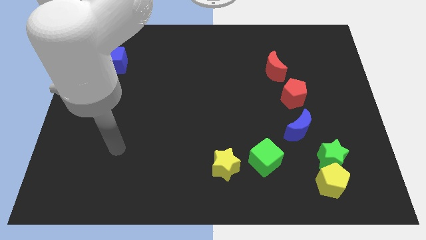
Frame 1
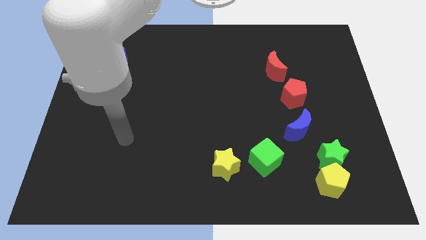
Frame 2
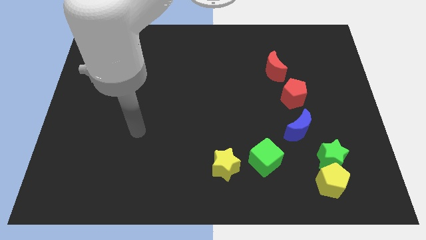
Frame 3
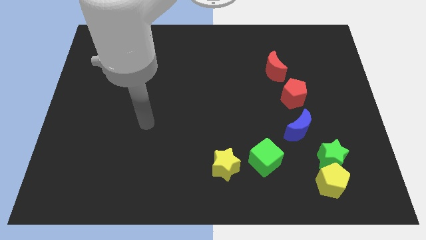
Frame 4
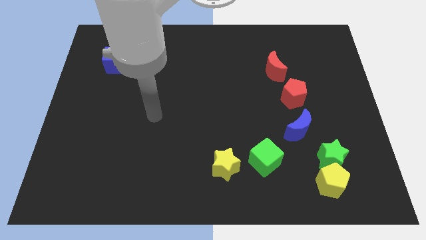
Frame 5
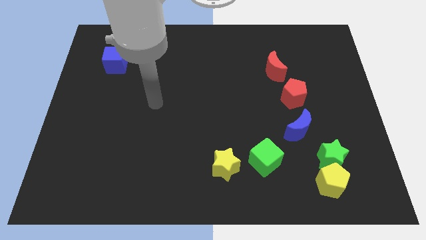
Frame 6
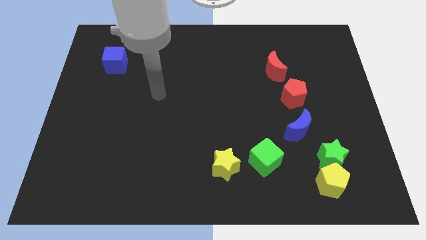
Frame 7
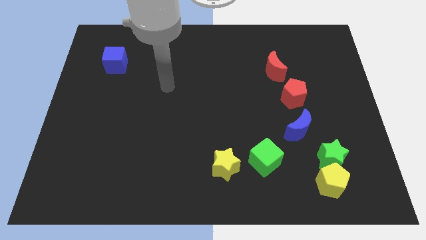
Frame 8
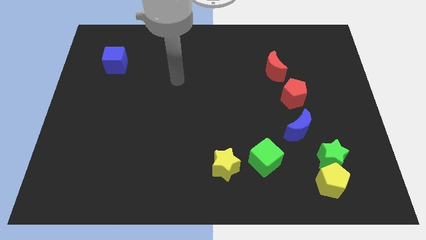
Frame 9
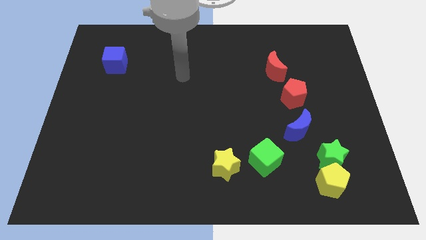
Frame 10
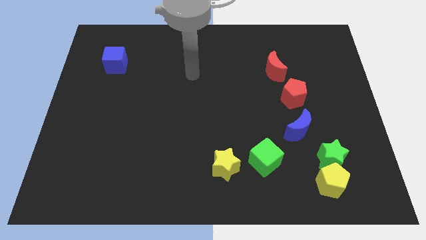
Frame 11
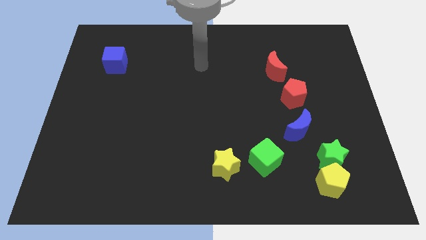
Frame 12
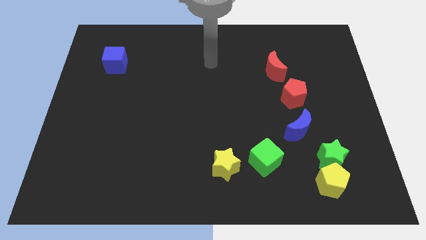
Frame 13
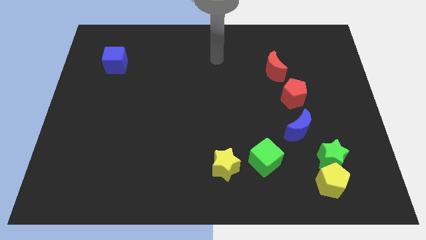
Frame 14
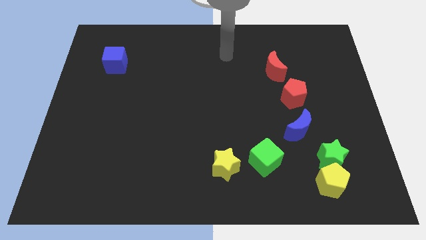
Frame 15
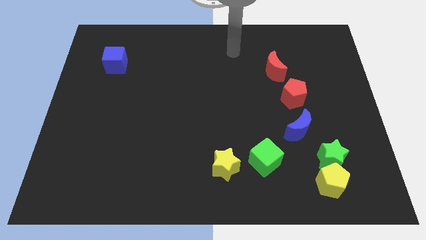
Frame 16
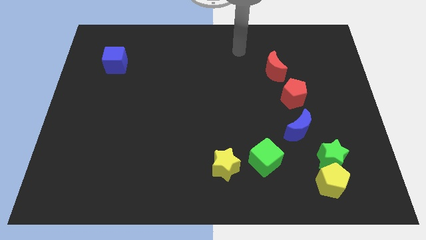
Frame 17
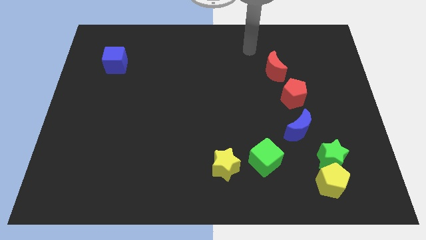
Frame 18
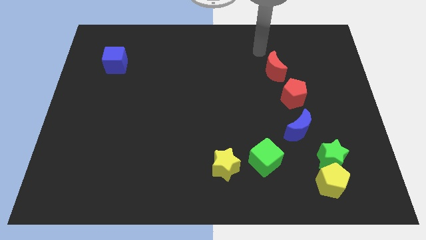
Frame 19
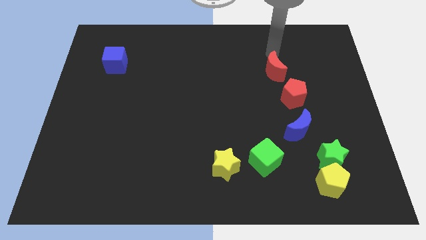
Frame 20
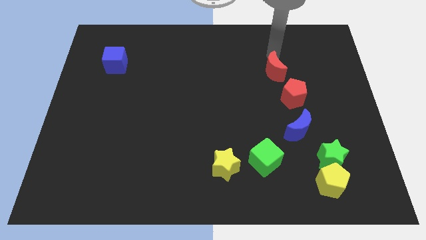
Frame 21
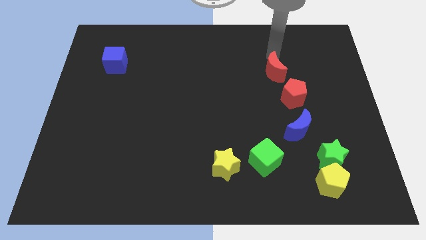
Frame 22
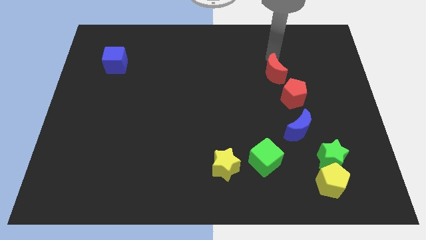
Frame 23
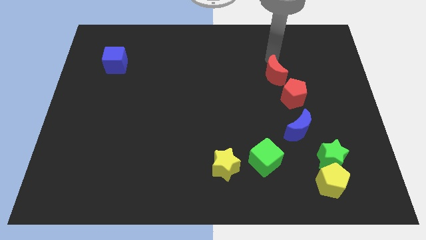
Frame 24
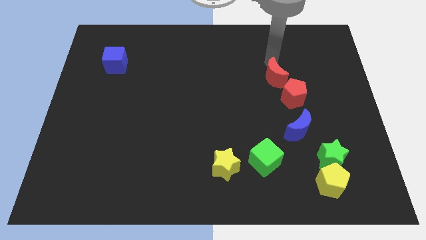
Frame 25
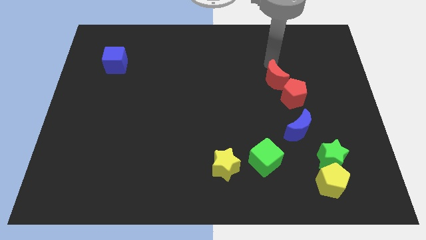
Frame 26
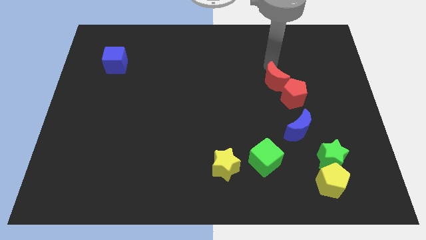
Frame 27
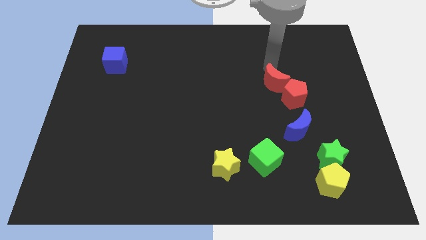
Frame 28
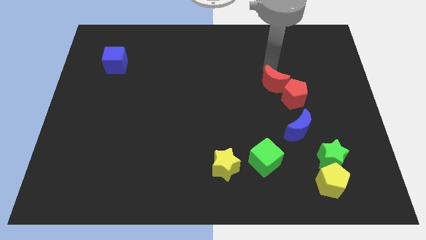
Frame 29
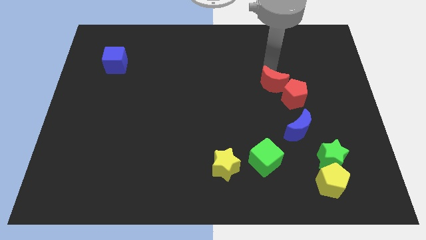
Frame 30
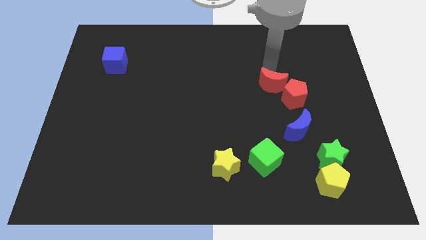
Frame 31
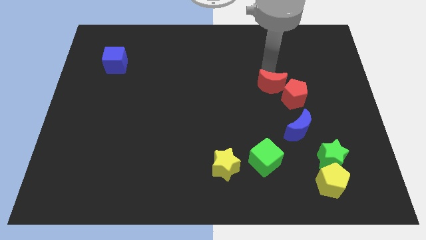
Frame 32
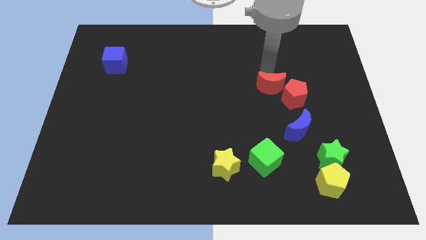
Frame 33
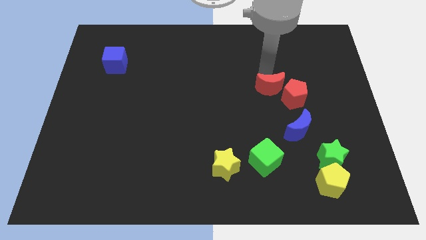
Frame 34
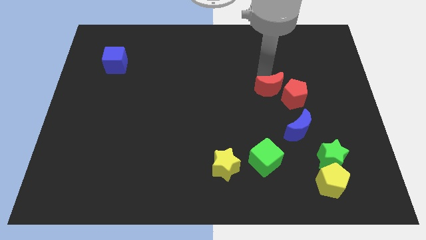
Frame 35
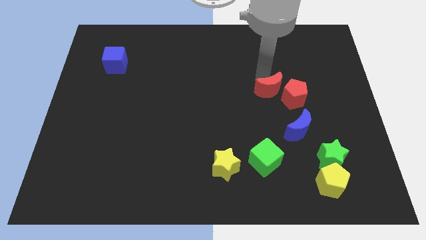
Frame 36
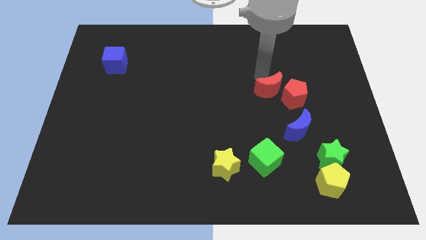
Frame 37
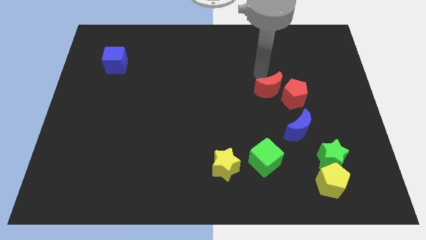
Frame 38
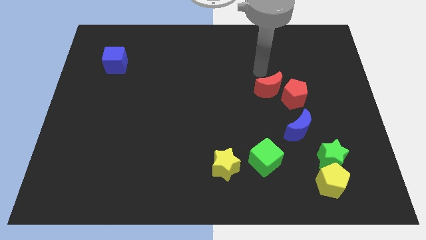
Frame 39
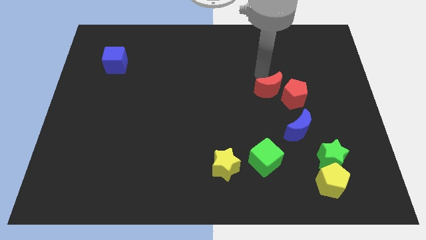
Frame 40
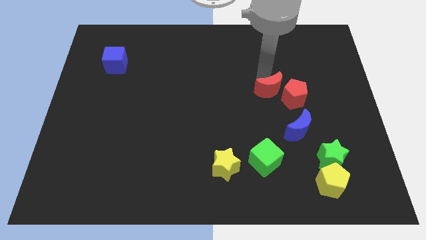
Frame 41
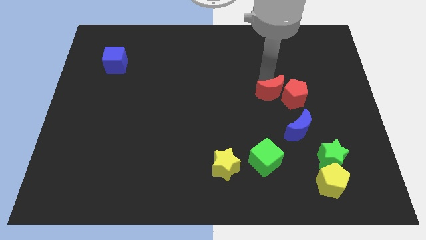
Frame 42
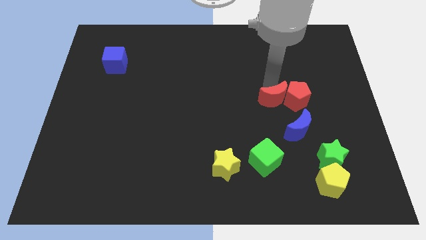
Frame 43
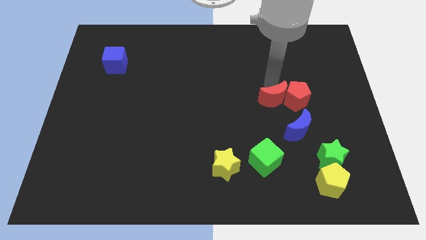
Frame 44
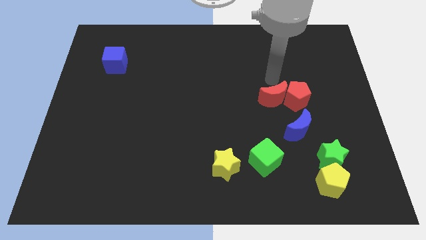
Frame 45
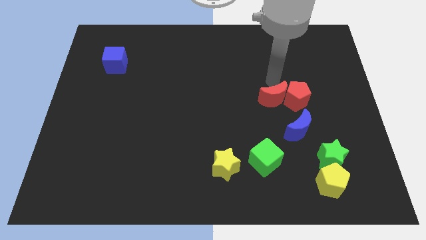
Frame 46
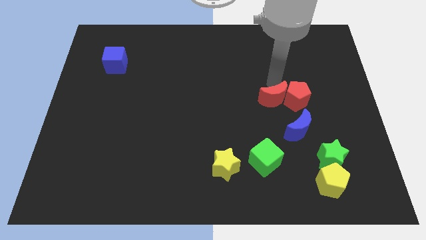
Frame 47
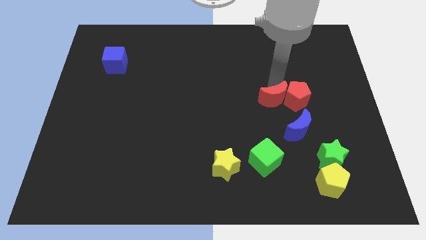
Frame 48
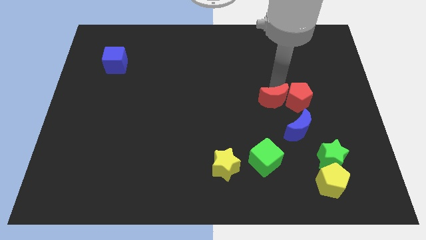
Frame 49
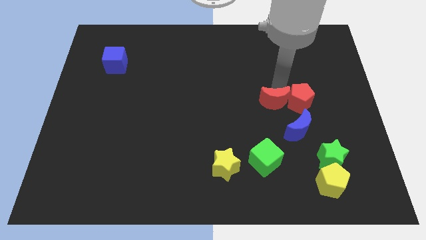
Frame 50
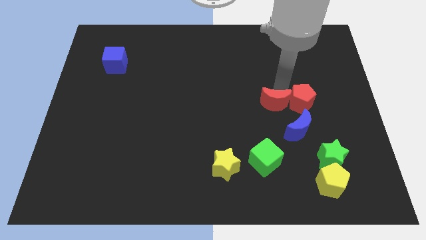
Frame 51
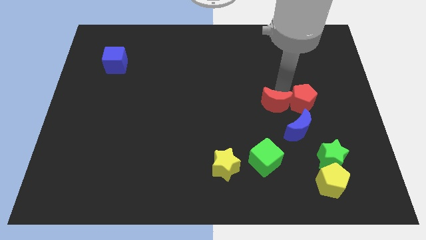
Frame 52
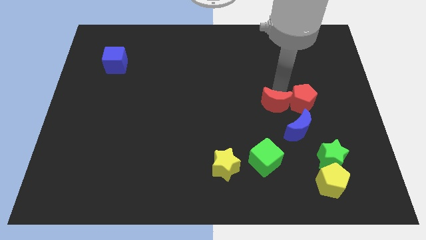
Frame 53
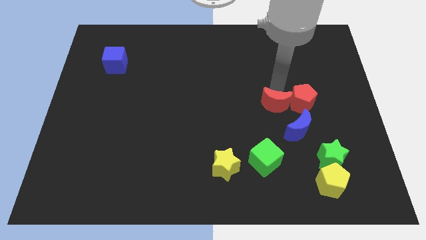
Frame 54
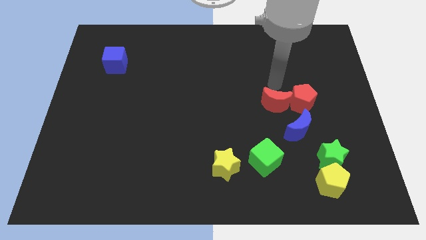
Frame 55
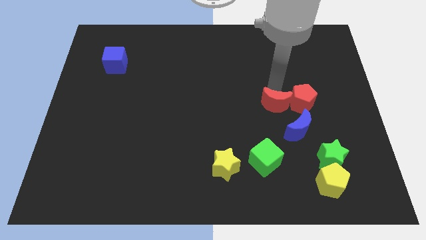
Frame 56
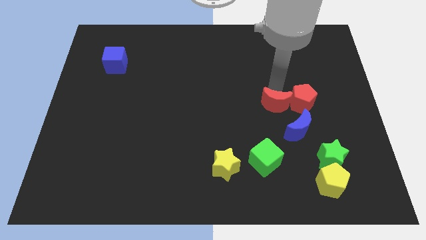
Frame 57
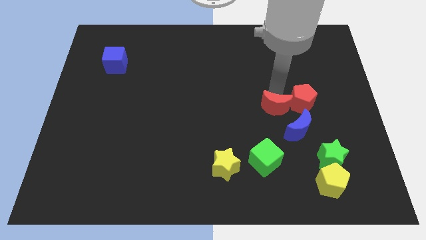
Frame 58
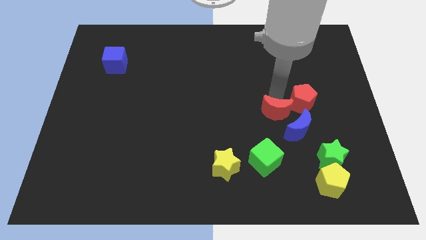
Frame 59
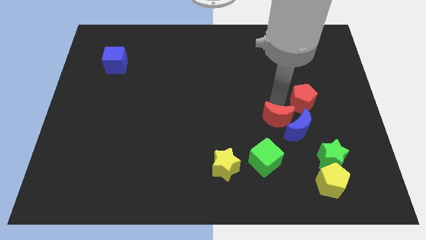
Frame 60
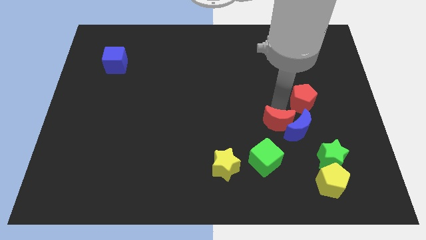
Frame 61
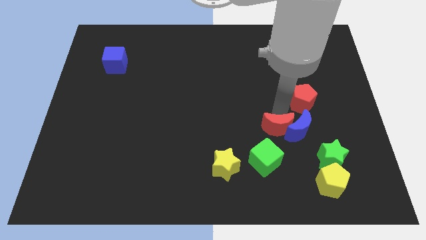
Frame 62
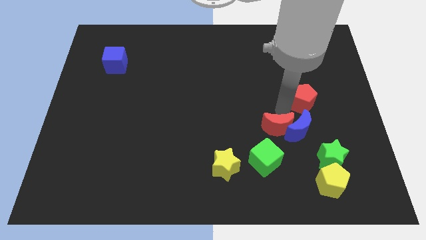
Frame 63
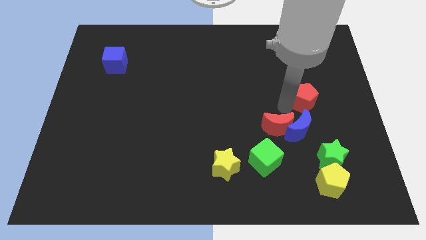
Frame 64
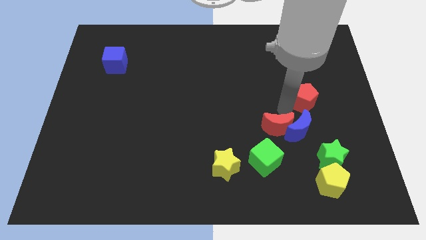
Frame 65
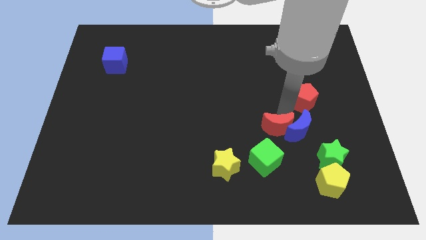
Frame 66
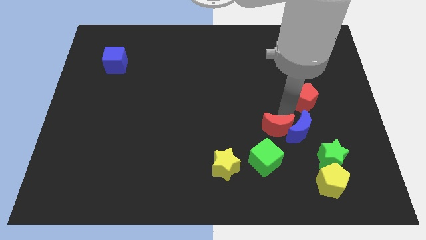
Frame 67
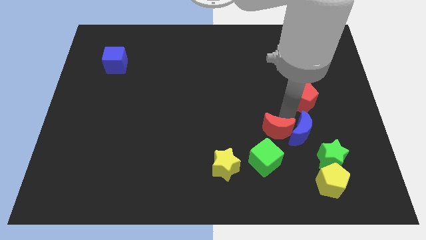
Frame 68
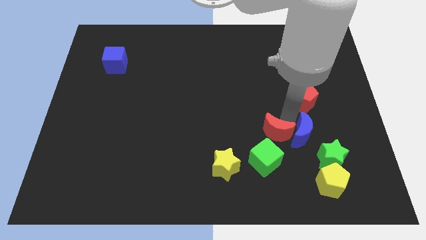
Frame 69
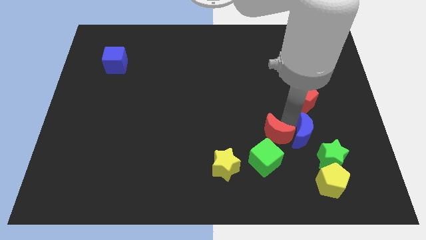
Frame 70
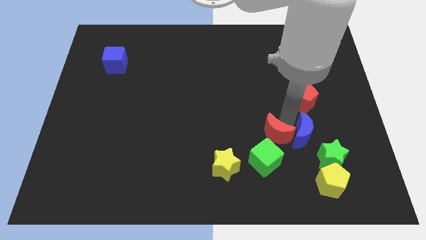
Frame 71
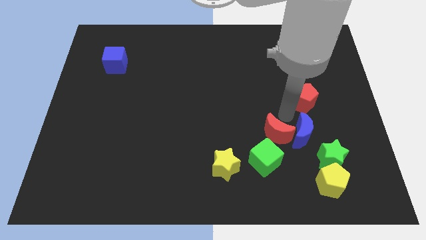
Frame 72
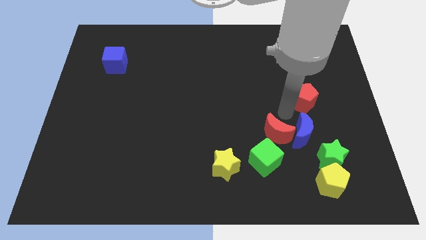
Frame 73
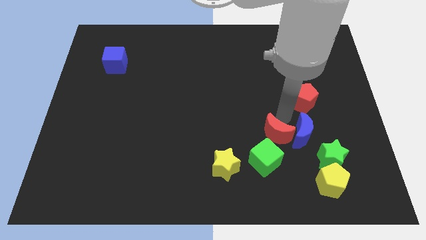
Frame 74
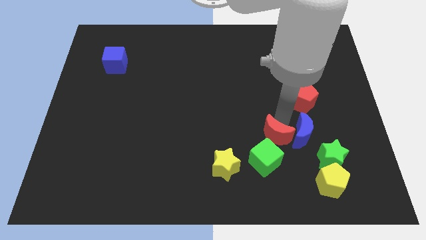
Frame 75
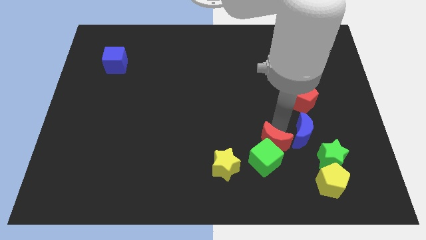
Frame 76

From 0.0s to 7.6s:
move the red moon next to the green cube

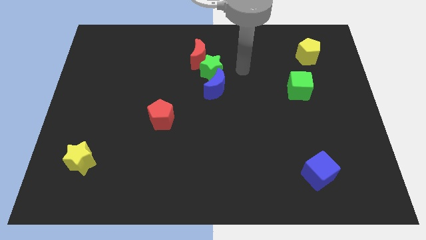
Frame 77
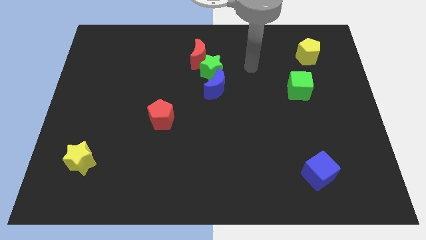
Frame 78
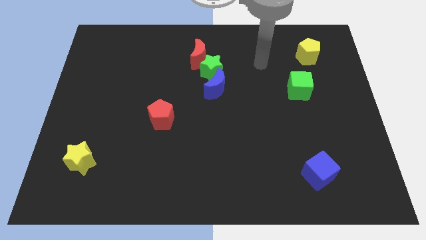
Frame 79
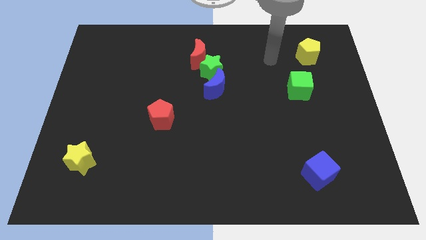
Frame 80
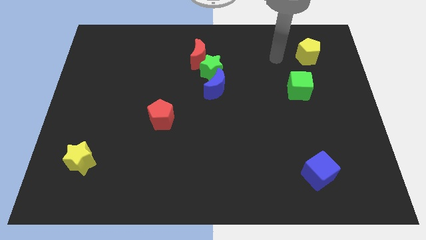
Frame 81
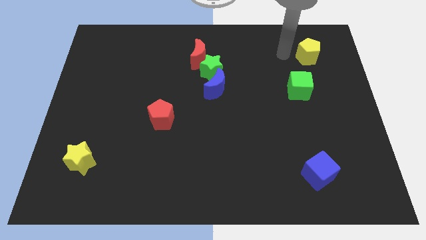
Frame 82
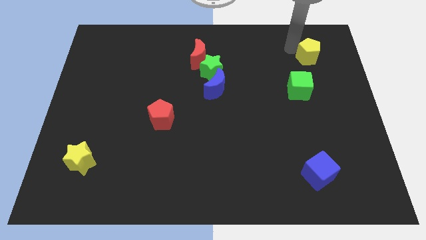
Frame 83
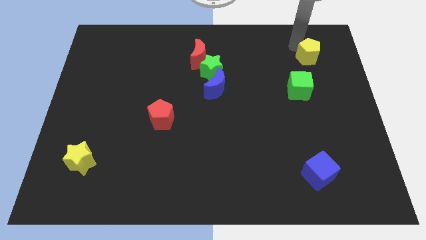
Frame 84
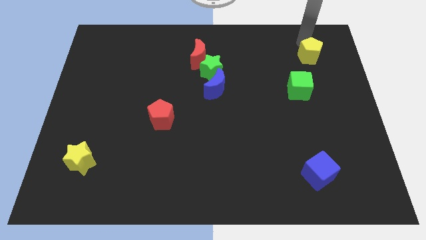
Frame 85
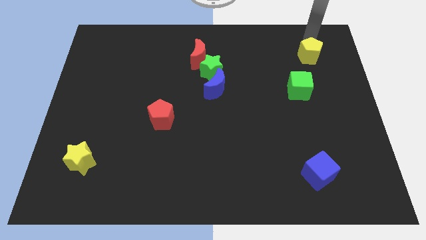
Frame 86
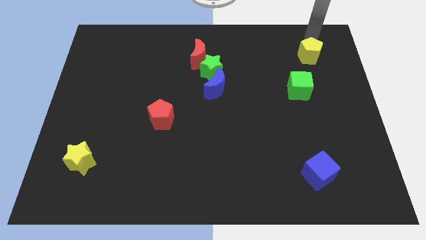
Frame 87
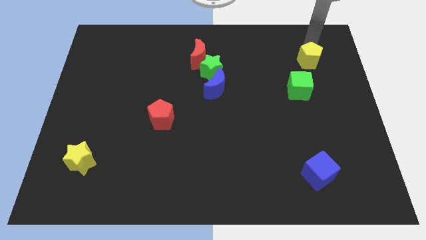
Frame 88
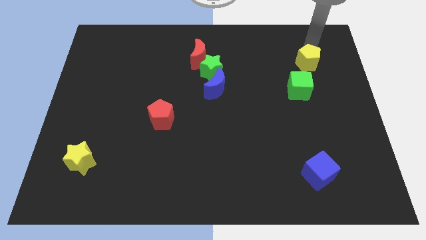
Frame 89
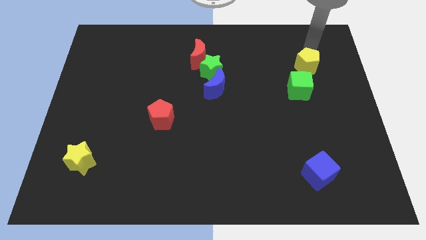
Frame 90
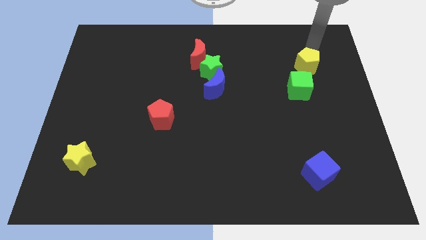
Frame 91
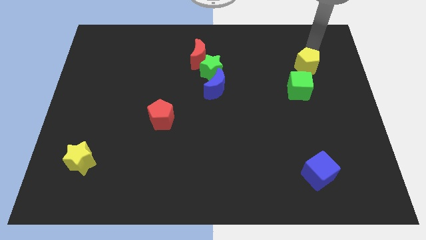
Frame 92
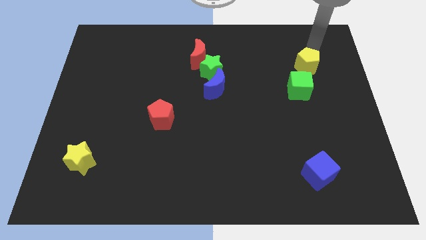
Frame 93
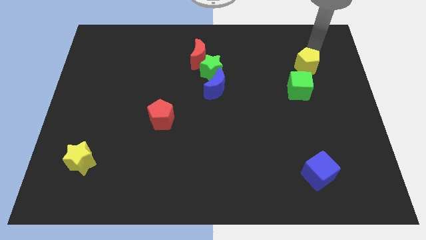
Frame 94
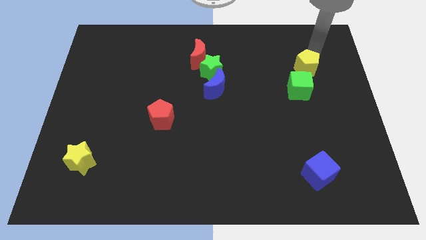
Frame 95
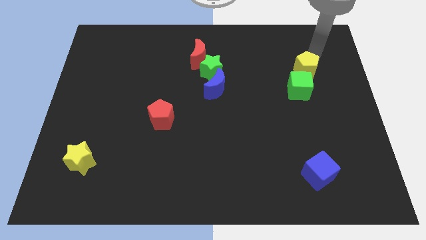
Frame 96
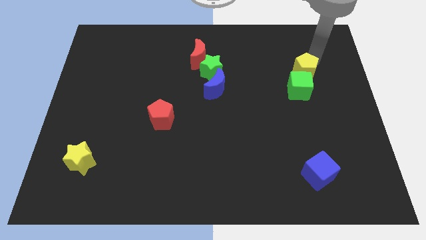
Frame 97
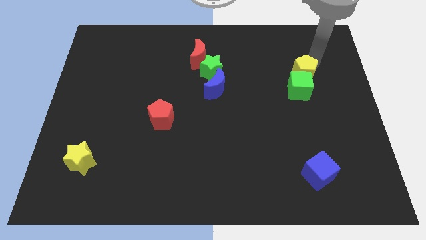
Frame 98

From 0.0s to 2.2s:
move the yellow pentagon close to the green cube
